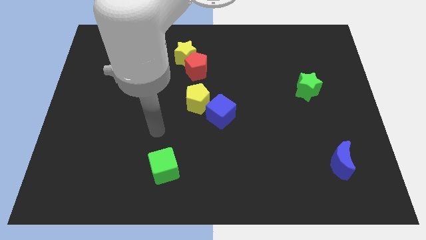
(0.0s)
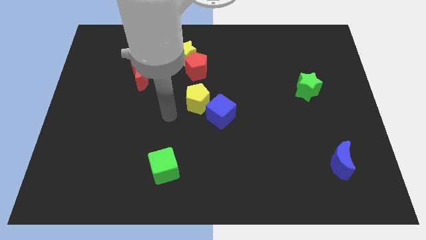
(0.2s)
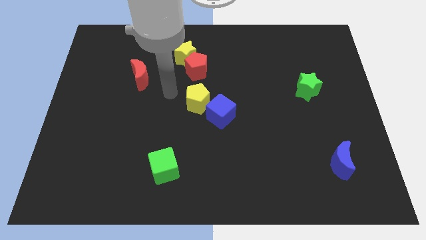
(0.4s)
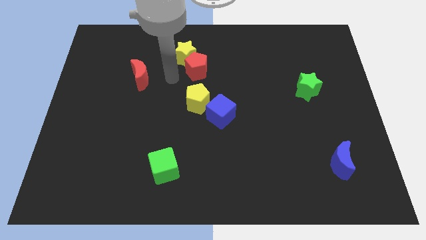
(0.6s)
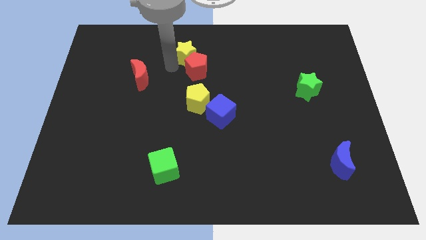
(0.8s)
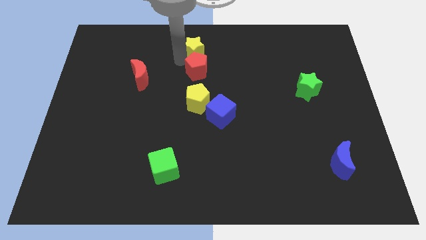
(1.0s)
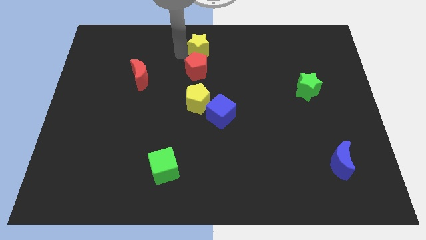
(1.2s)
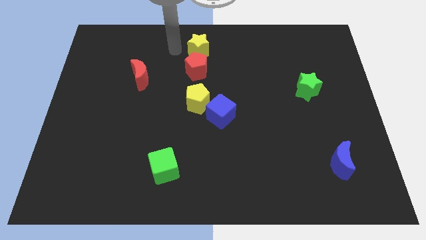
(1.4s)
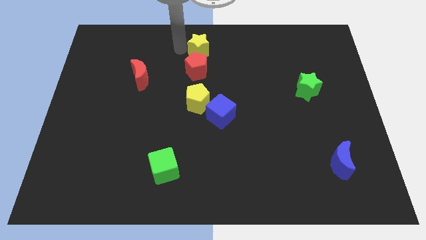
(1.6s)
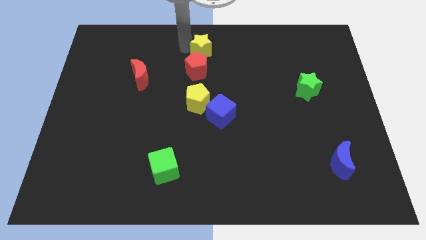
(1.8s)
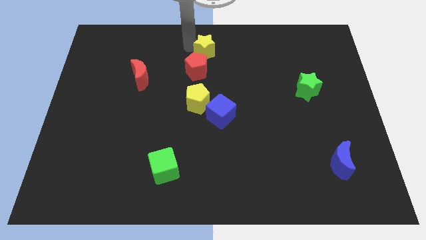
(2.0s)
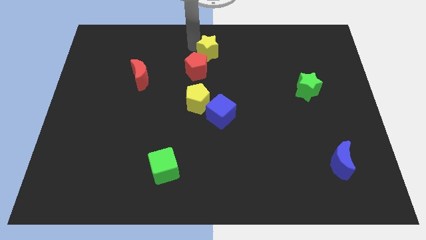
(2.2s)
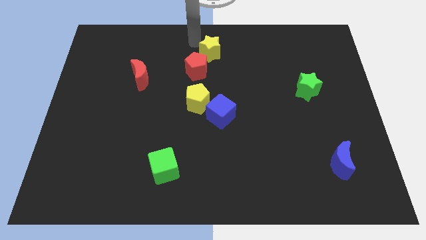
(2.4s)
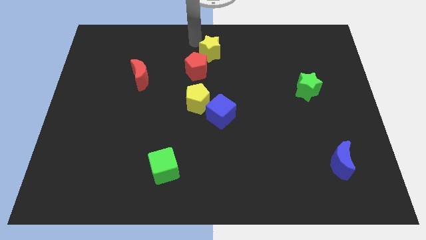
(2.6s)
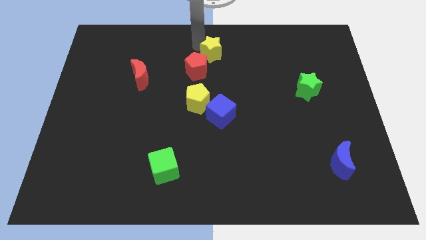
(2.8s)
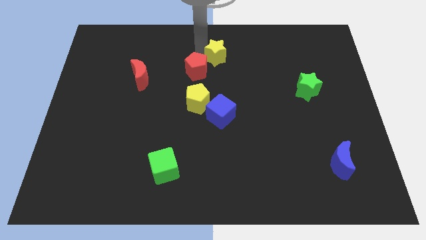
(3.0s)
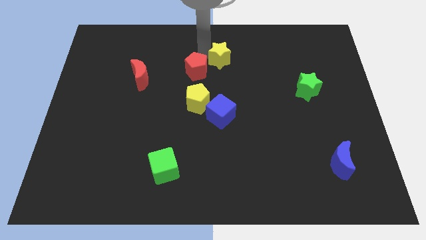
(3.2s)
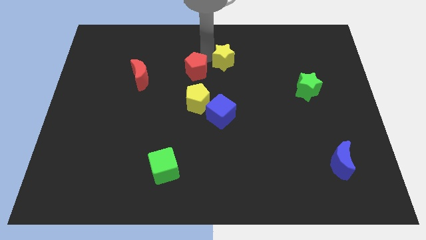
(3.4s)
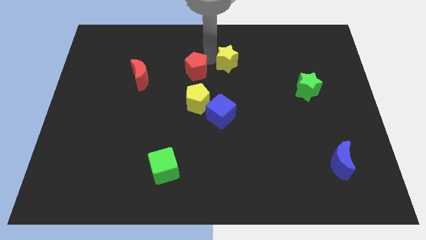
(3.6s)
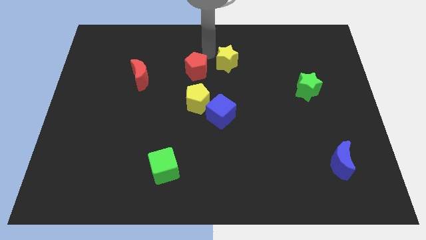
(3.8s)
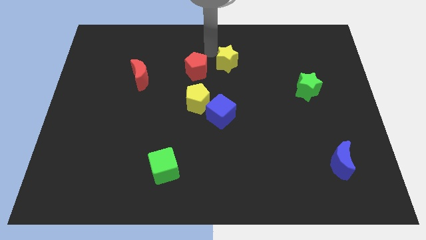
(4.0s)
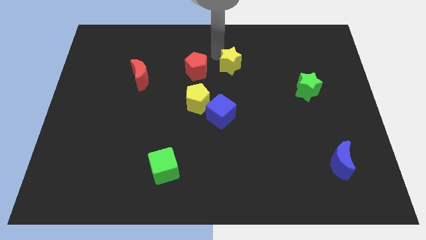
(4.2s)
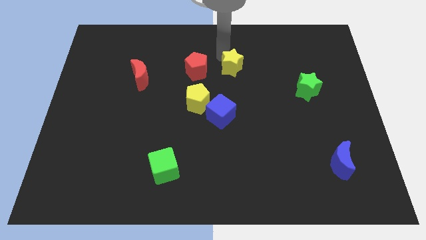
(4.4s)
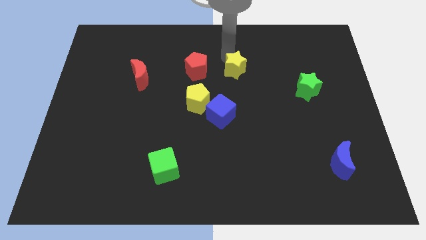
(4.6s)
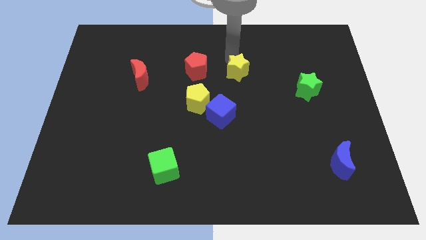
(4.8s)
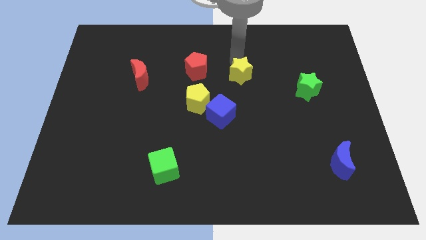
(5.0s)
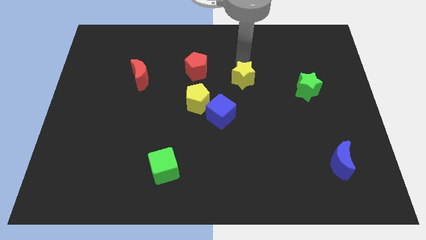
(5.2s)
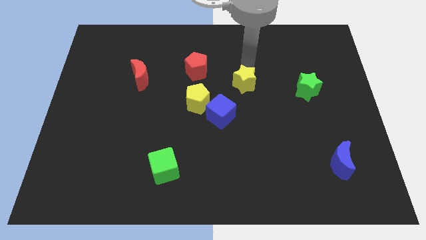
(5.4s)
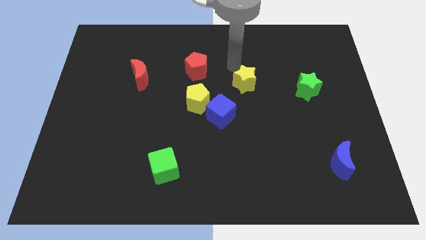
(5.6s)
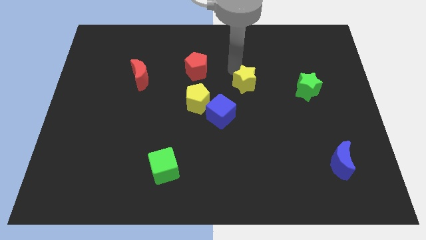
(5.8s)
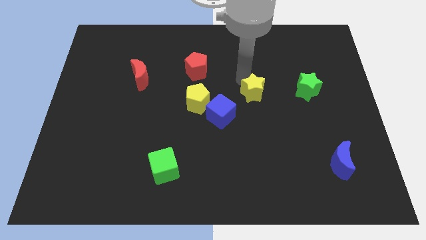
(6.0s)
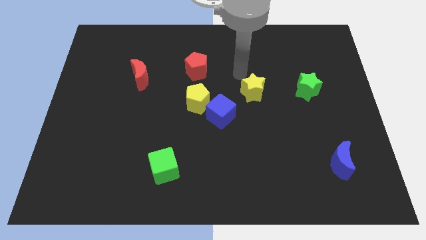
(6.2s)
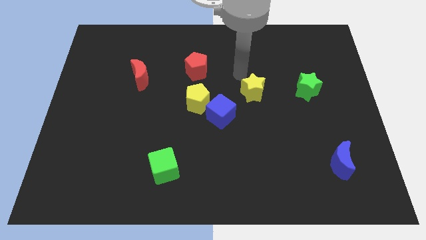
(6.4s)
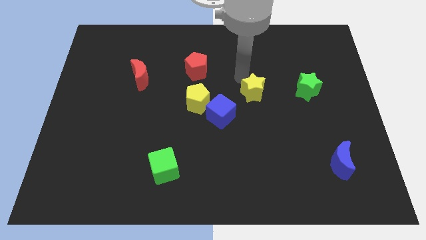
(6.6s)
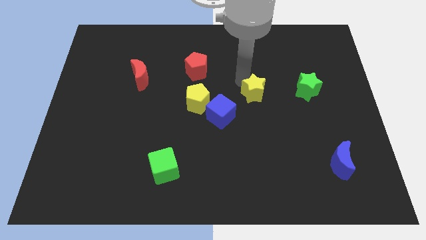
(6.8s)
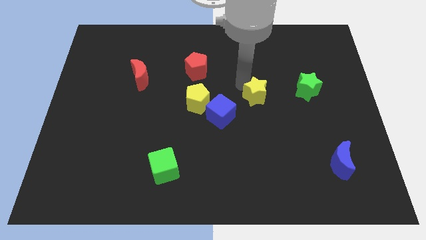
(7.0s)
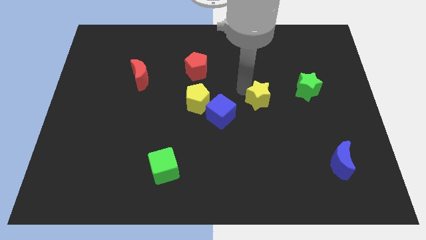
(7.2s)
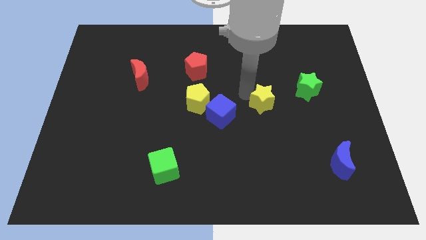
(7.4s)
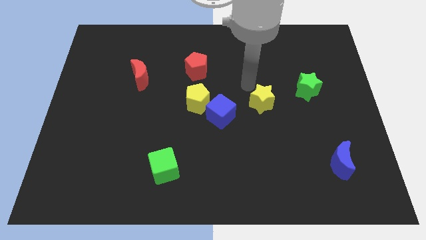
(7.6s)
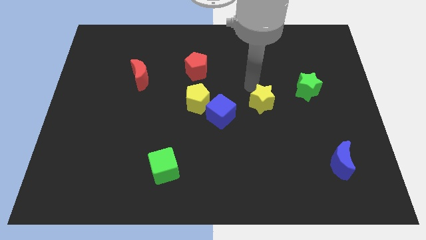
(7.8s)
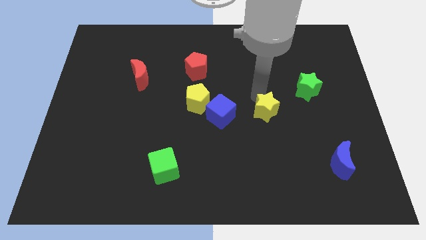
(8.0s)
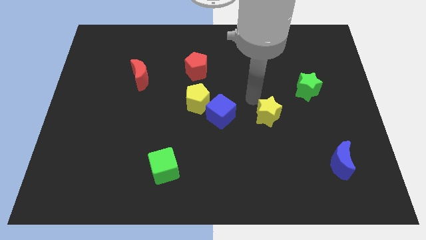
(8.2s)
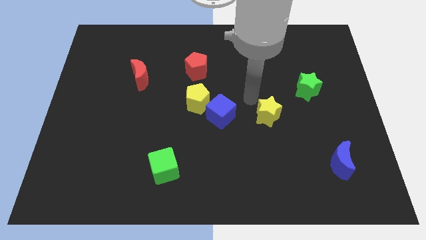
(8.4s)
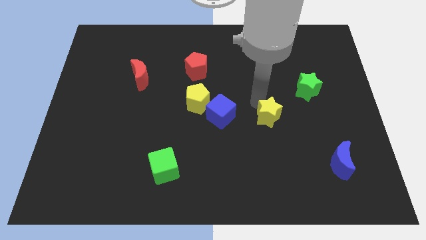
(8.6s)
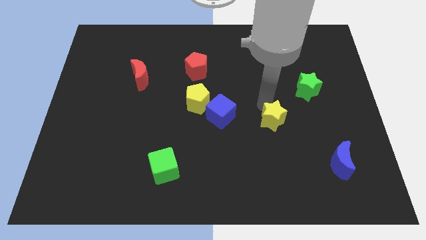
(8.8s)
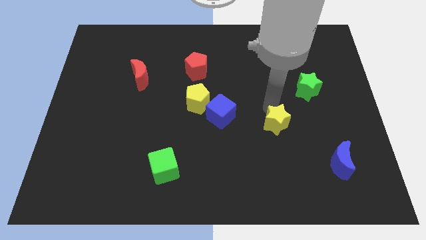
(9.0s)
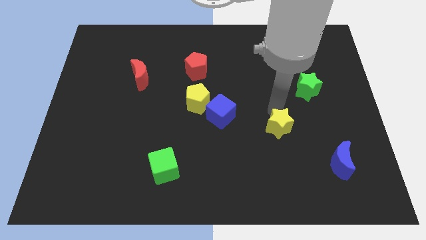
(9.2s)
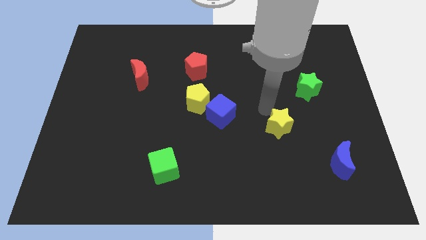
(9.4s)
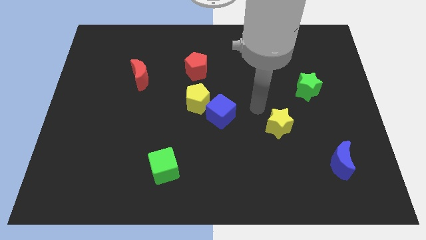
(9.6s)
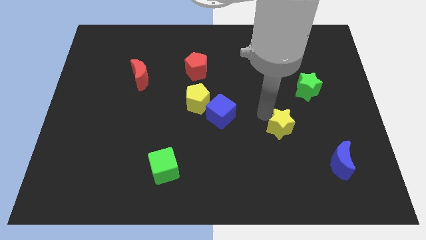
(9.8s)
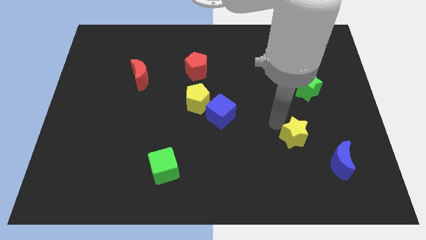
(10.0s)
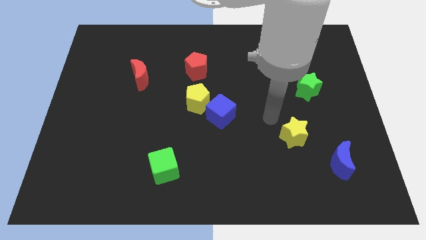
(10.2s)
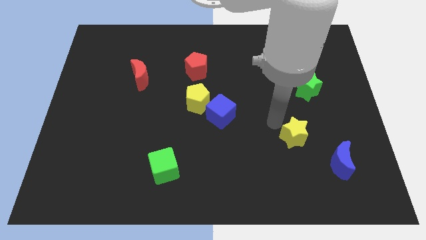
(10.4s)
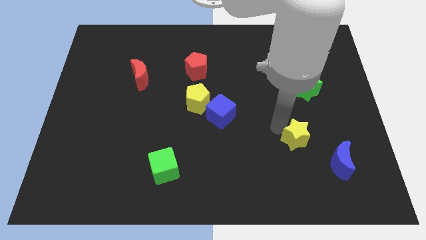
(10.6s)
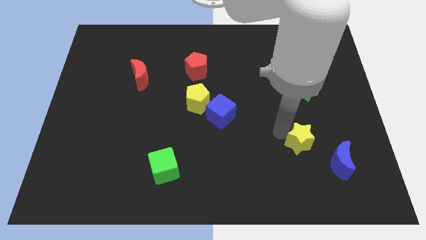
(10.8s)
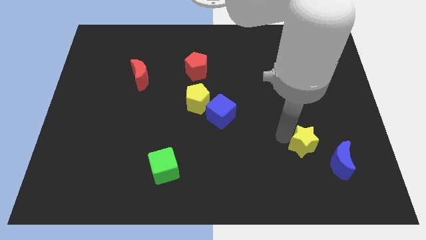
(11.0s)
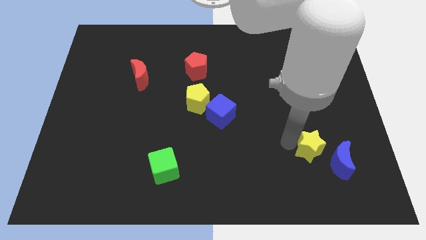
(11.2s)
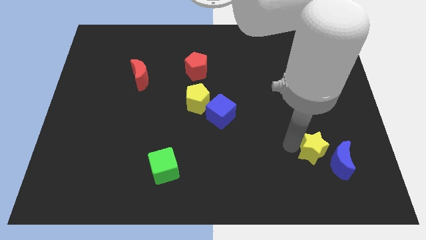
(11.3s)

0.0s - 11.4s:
slide the yellow star close to the blue moon

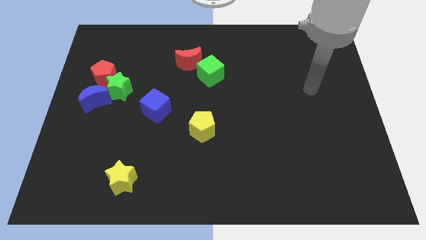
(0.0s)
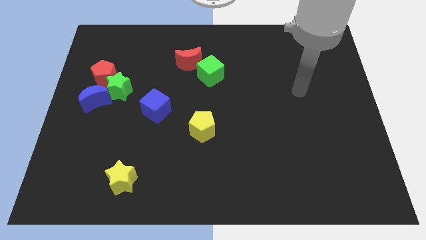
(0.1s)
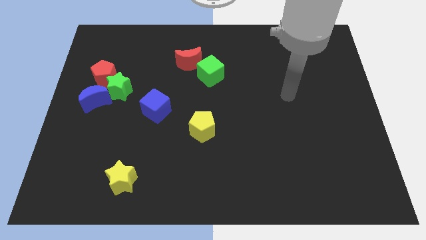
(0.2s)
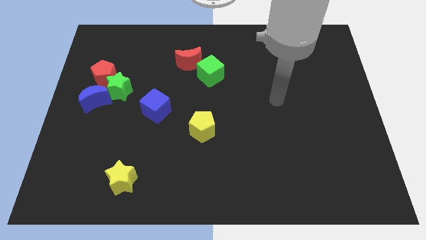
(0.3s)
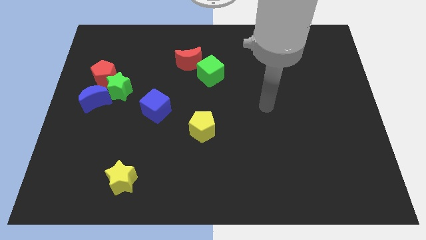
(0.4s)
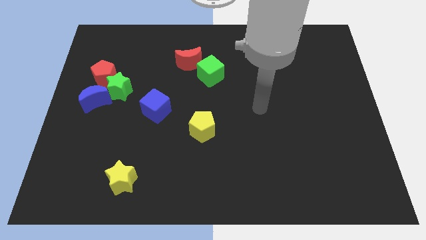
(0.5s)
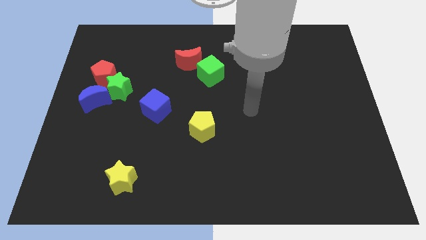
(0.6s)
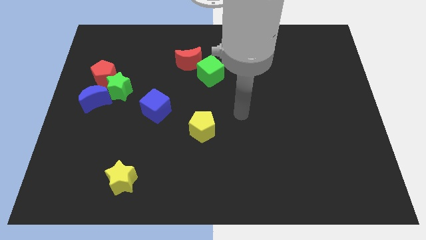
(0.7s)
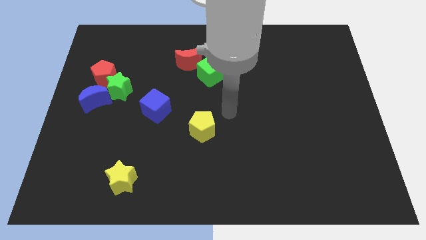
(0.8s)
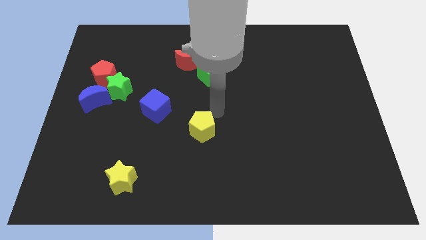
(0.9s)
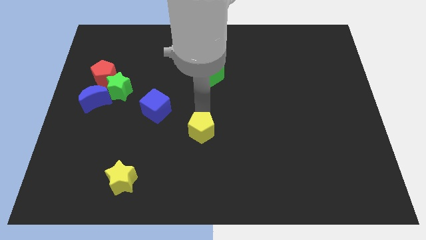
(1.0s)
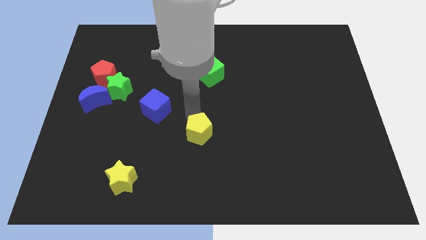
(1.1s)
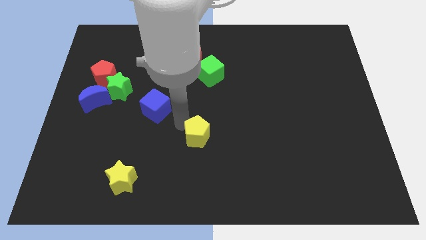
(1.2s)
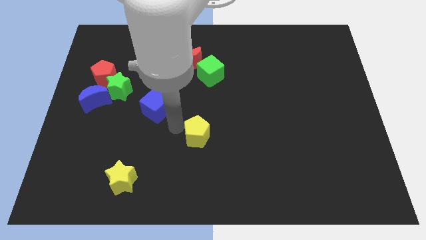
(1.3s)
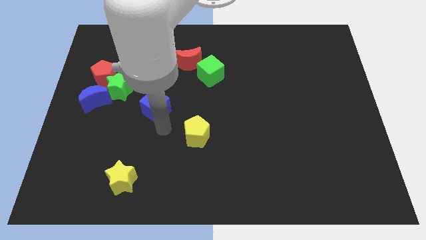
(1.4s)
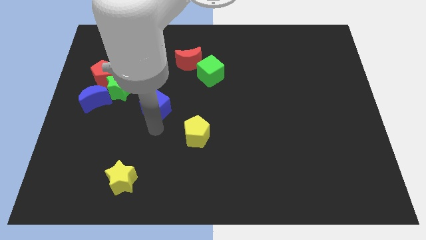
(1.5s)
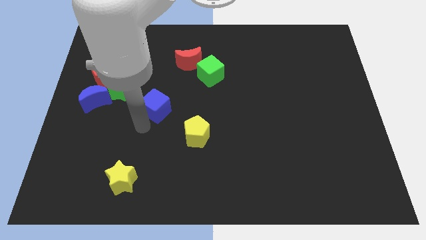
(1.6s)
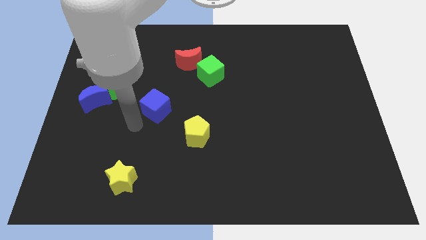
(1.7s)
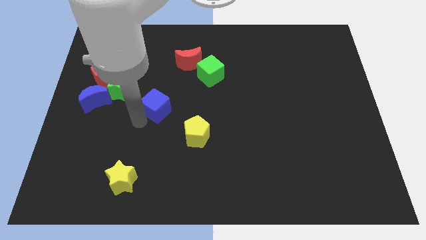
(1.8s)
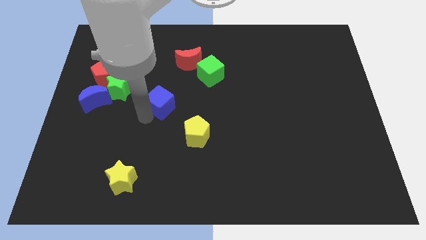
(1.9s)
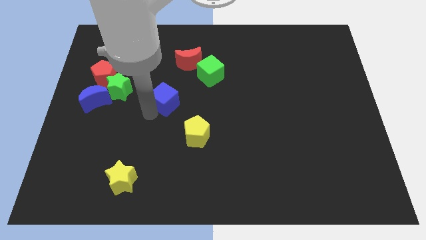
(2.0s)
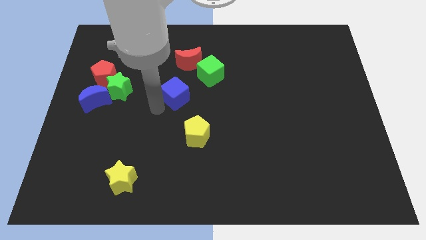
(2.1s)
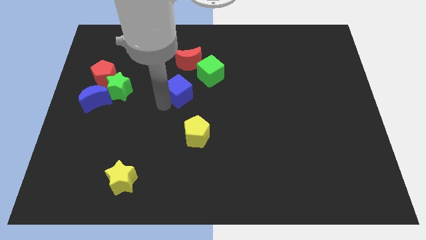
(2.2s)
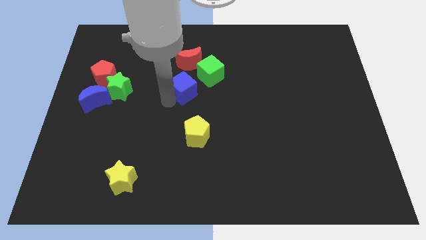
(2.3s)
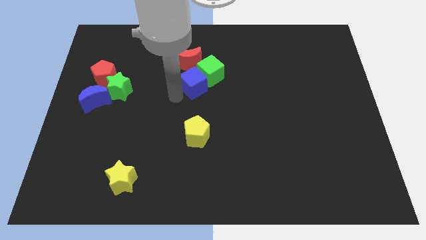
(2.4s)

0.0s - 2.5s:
slide the blue cube next to the green cube
